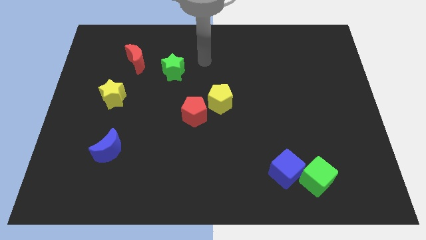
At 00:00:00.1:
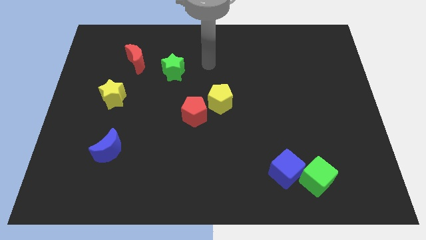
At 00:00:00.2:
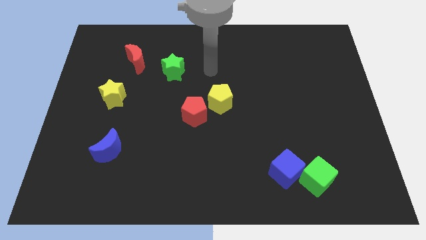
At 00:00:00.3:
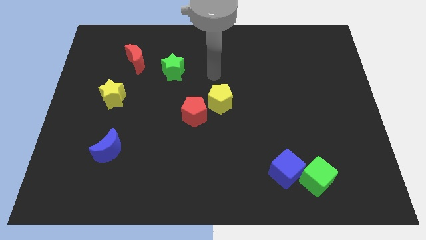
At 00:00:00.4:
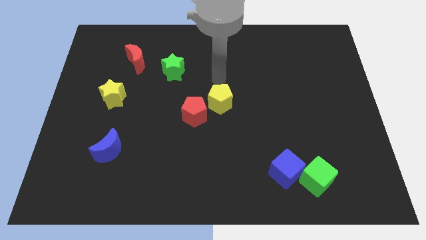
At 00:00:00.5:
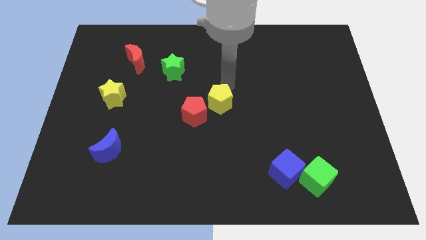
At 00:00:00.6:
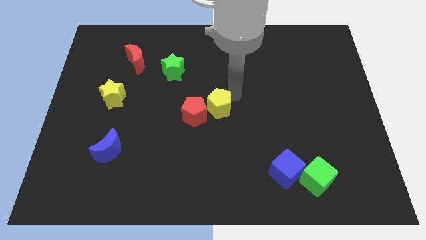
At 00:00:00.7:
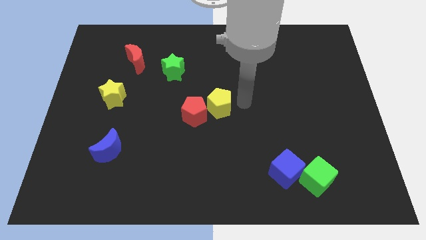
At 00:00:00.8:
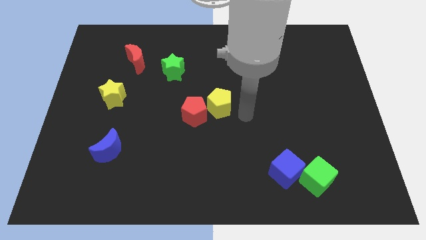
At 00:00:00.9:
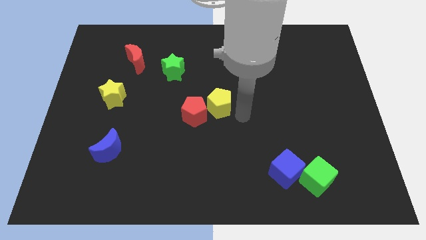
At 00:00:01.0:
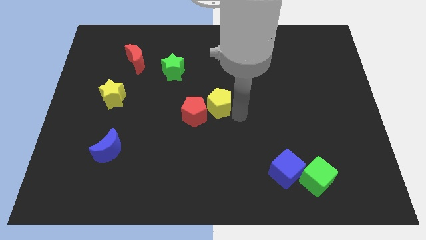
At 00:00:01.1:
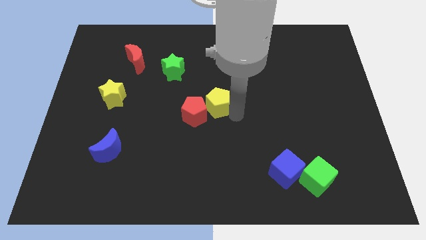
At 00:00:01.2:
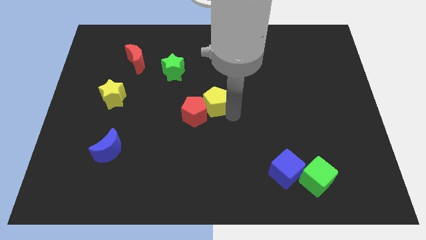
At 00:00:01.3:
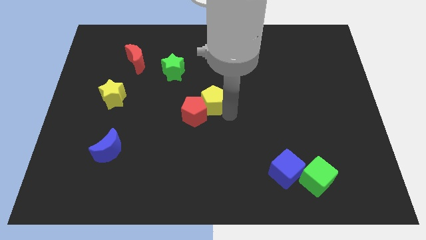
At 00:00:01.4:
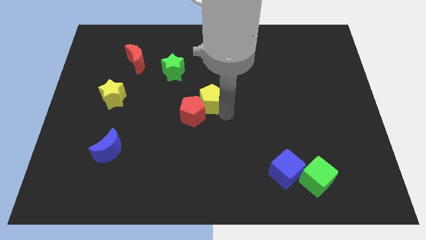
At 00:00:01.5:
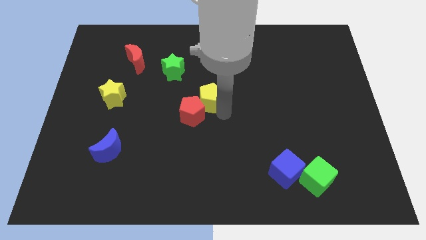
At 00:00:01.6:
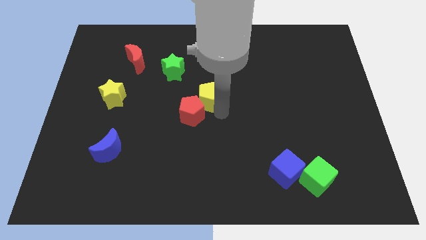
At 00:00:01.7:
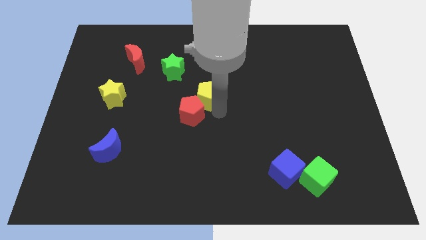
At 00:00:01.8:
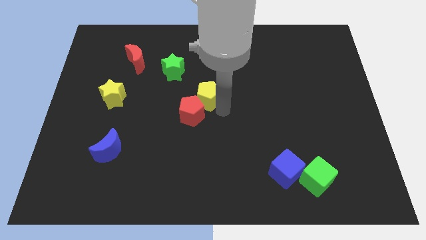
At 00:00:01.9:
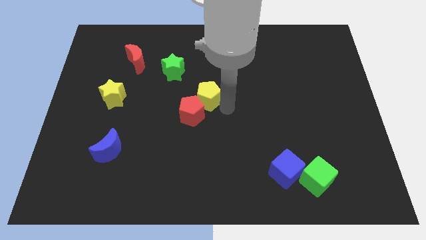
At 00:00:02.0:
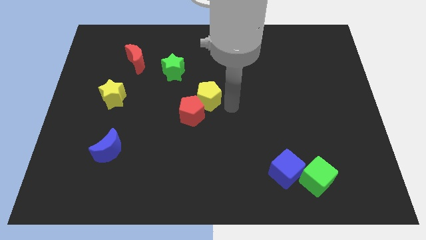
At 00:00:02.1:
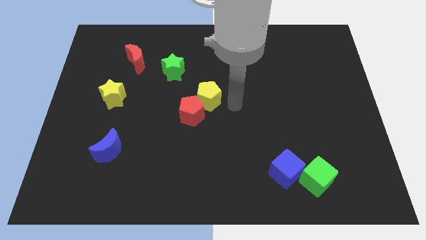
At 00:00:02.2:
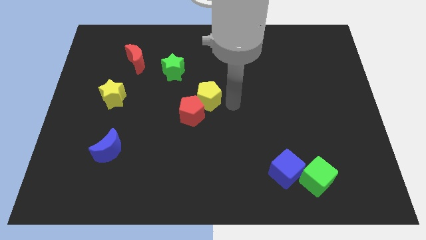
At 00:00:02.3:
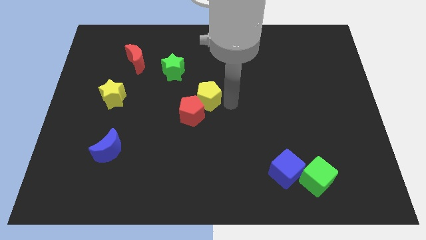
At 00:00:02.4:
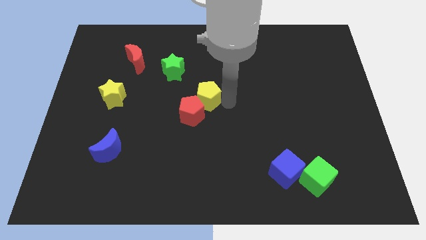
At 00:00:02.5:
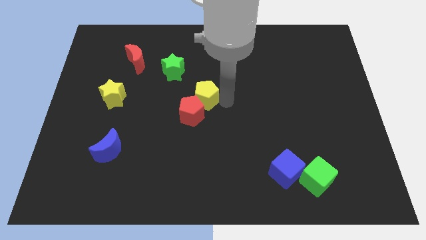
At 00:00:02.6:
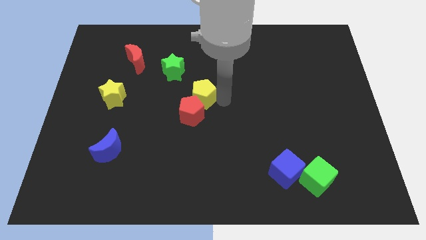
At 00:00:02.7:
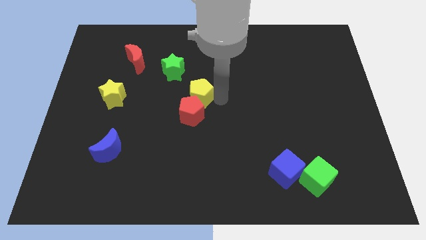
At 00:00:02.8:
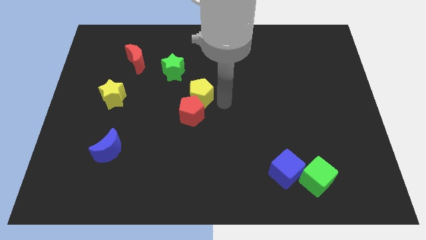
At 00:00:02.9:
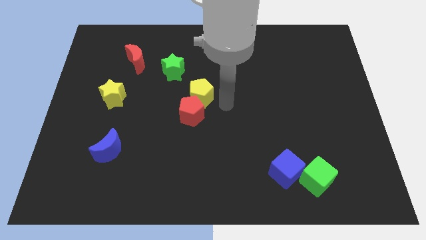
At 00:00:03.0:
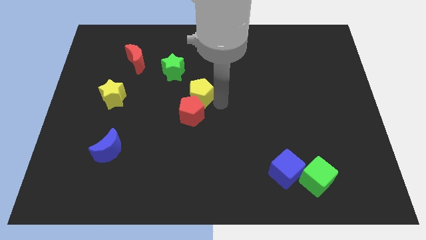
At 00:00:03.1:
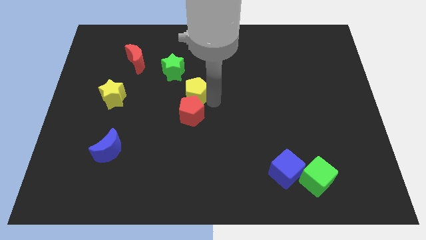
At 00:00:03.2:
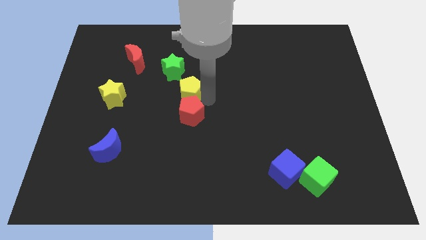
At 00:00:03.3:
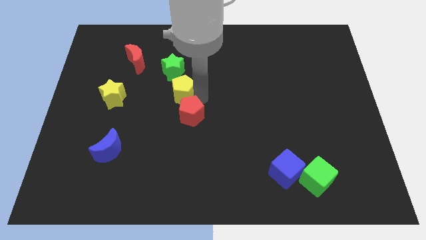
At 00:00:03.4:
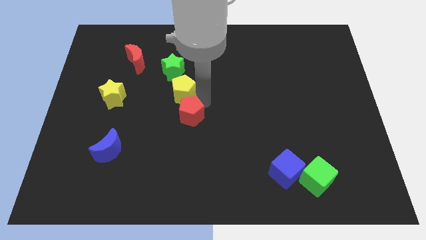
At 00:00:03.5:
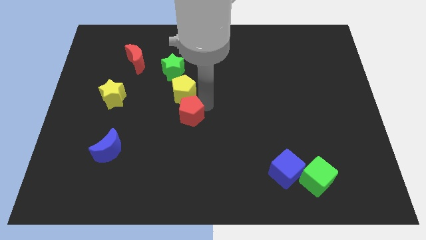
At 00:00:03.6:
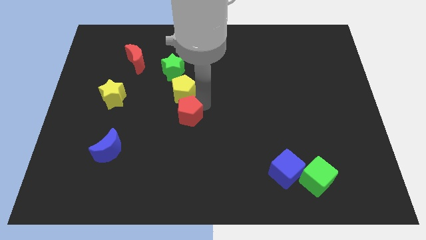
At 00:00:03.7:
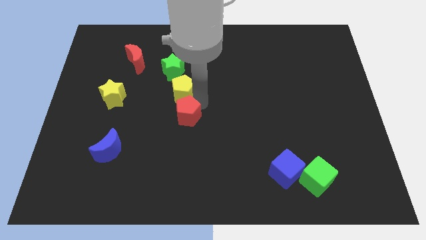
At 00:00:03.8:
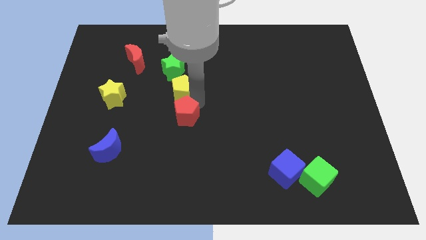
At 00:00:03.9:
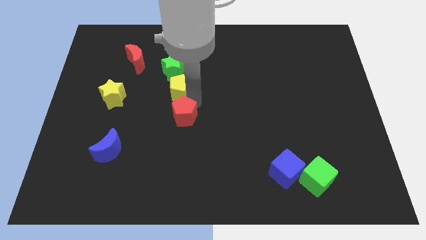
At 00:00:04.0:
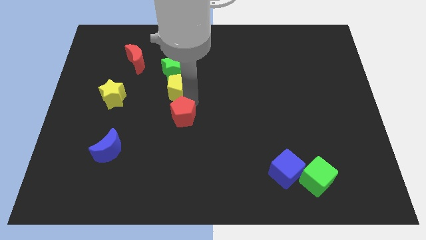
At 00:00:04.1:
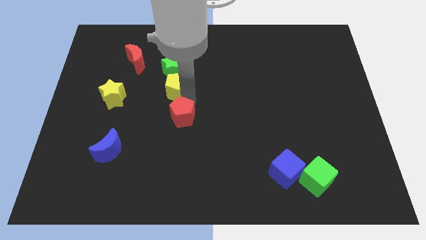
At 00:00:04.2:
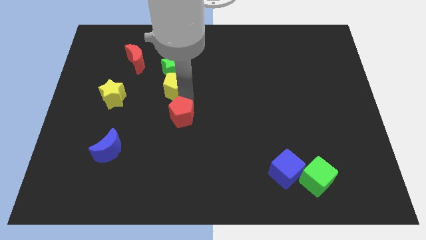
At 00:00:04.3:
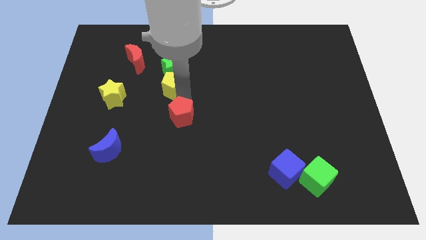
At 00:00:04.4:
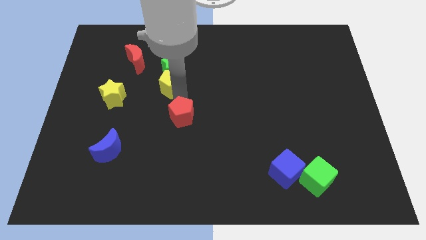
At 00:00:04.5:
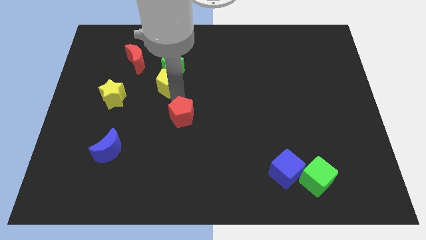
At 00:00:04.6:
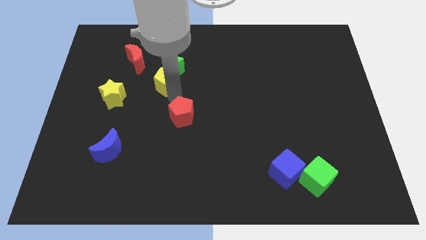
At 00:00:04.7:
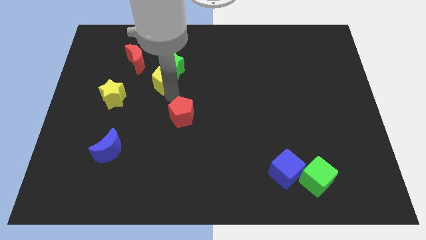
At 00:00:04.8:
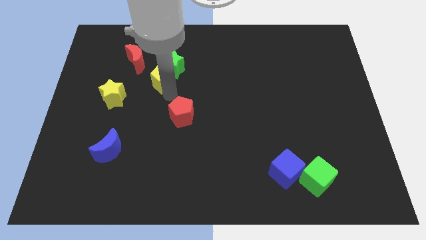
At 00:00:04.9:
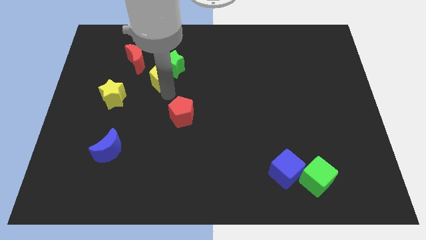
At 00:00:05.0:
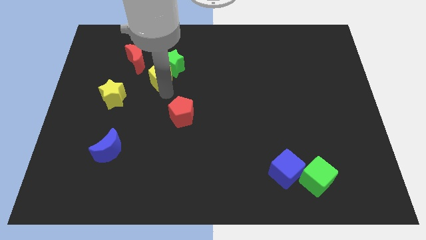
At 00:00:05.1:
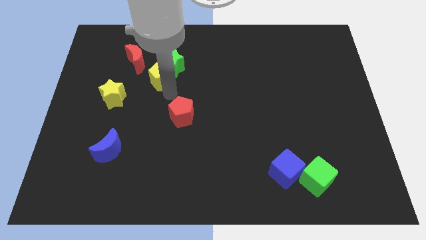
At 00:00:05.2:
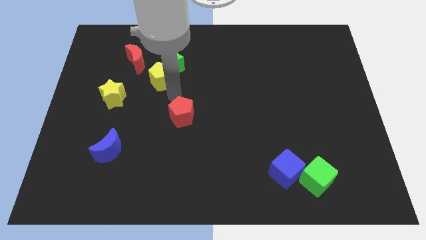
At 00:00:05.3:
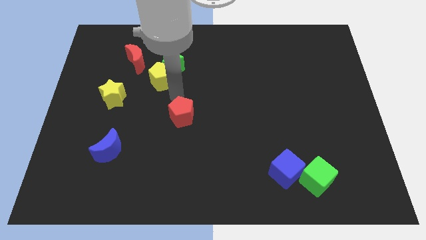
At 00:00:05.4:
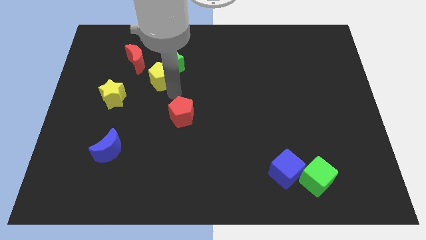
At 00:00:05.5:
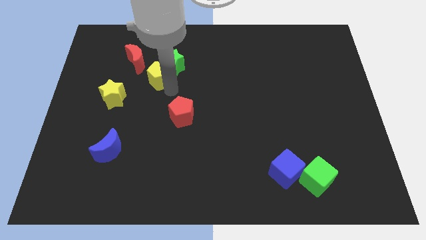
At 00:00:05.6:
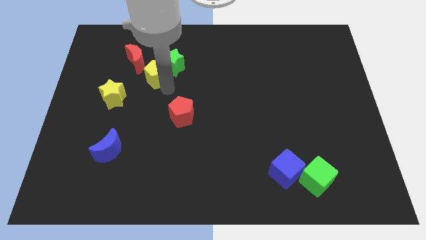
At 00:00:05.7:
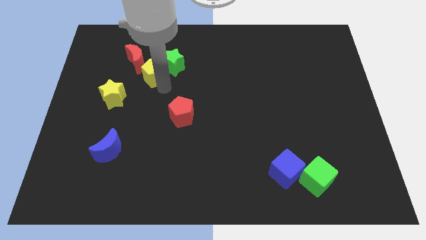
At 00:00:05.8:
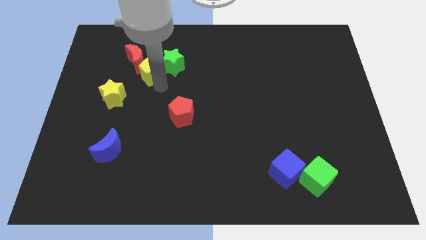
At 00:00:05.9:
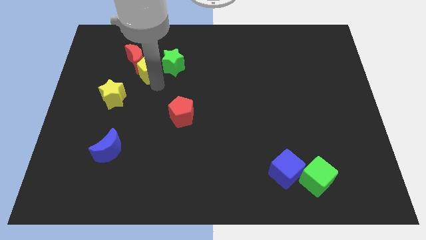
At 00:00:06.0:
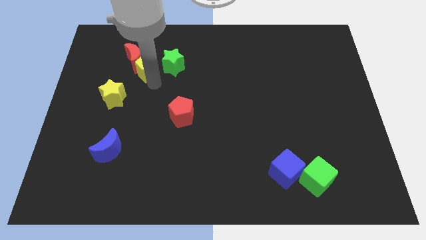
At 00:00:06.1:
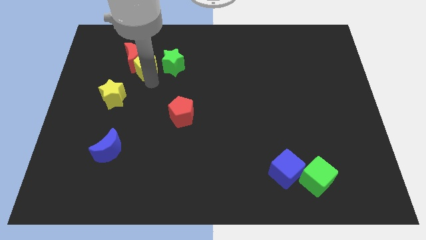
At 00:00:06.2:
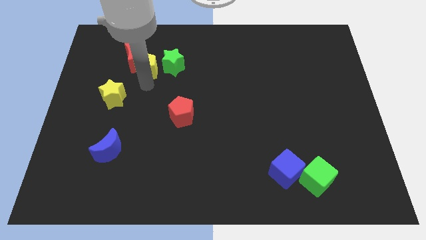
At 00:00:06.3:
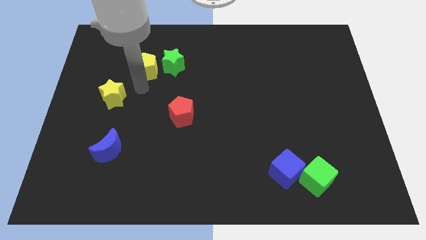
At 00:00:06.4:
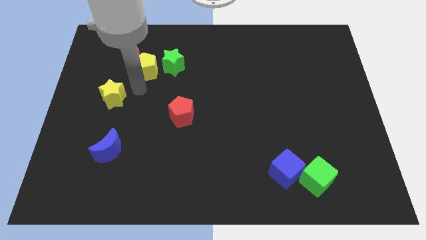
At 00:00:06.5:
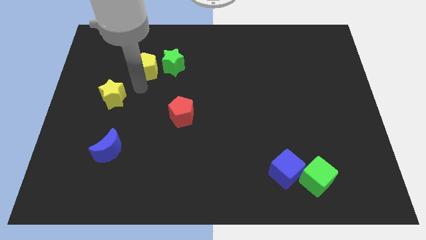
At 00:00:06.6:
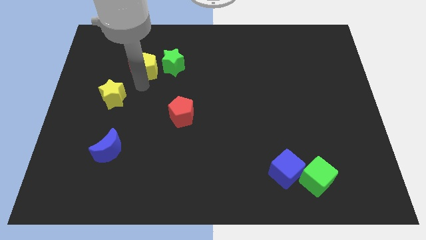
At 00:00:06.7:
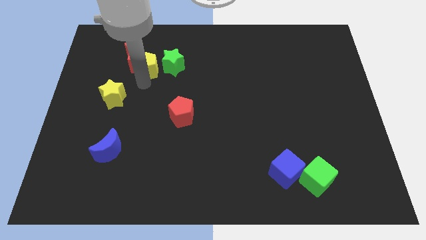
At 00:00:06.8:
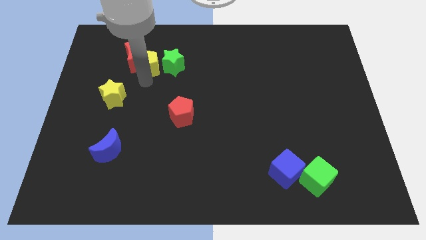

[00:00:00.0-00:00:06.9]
push the yellow pentagon diagonally up and to the left of the green star

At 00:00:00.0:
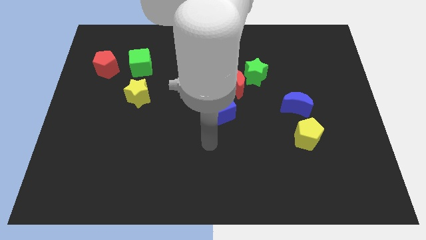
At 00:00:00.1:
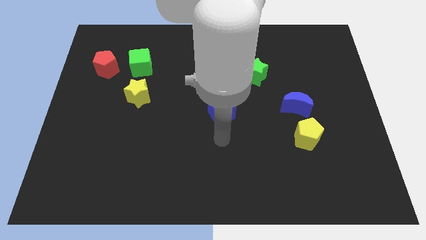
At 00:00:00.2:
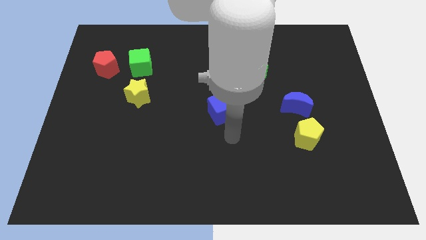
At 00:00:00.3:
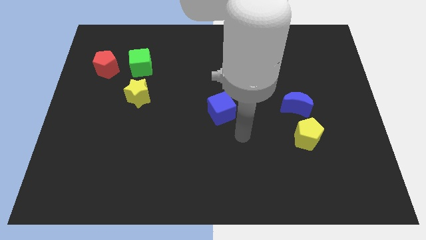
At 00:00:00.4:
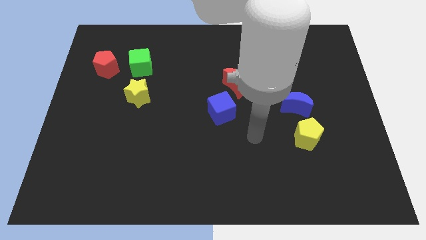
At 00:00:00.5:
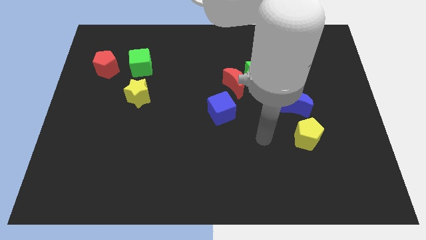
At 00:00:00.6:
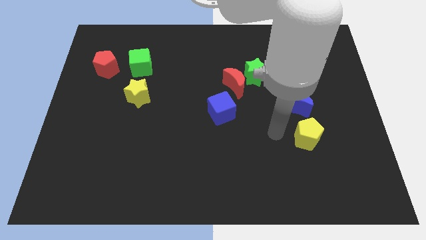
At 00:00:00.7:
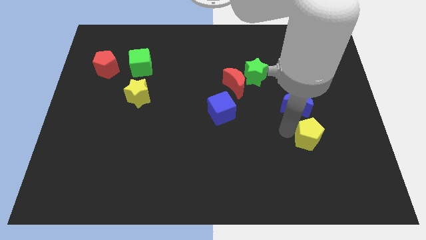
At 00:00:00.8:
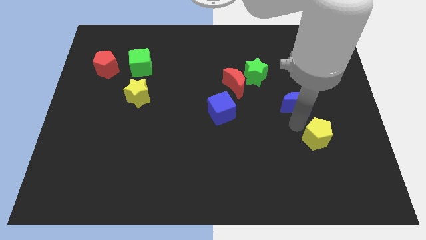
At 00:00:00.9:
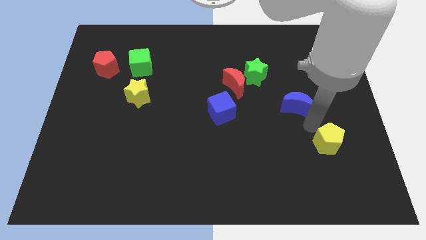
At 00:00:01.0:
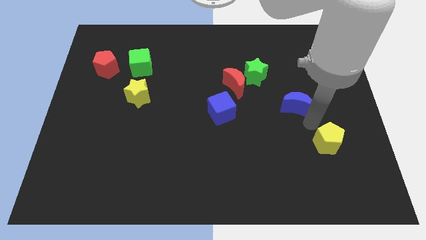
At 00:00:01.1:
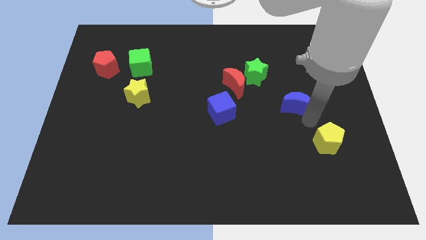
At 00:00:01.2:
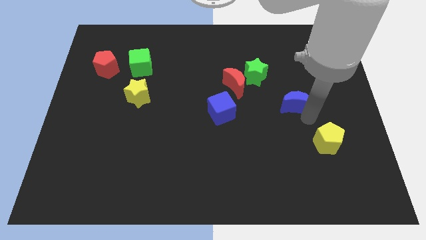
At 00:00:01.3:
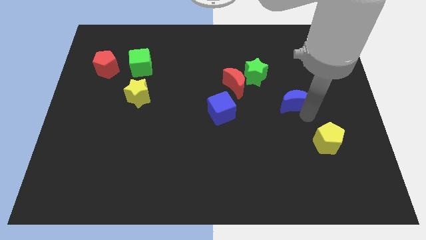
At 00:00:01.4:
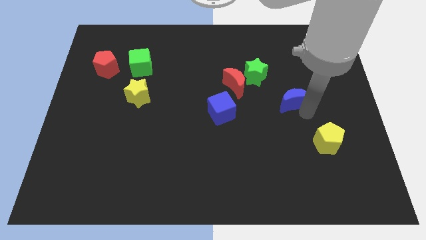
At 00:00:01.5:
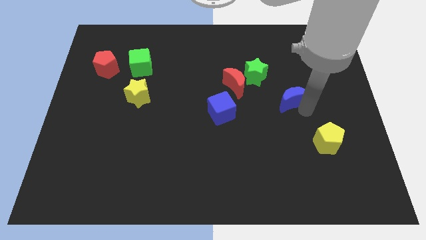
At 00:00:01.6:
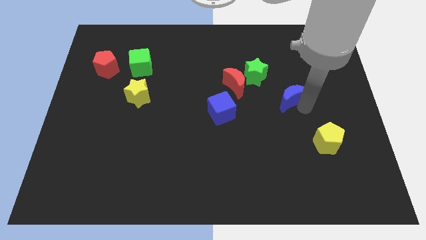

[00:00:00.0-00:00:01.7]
slide the blue moon right of the red moon
